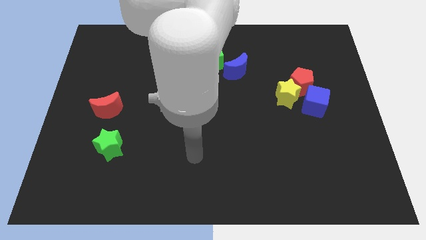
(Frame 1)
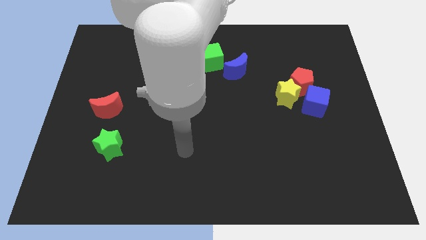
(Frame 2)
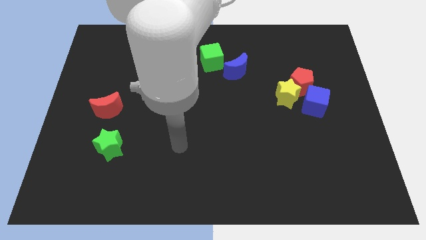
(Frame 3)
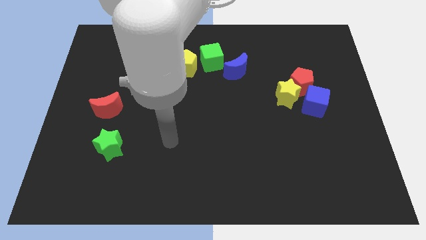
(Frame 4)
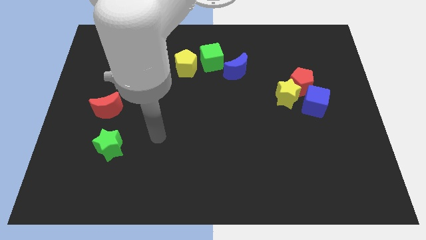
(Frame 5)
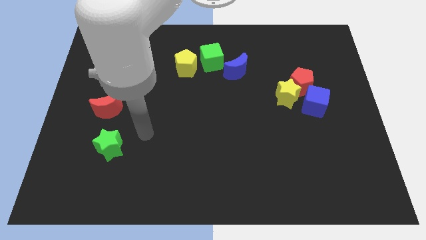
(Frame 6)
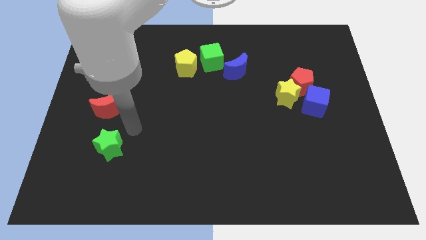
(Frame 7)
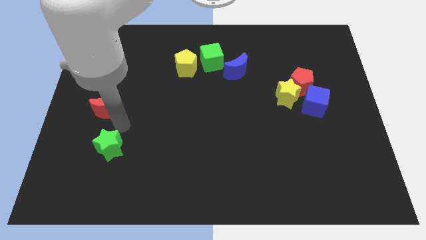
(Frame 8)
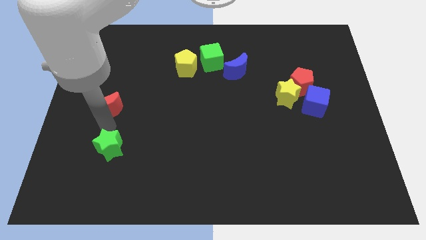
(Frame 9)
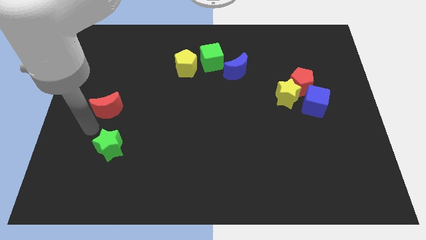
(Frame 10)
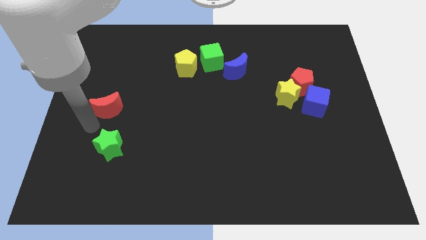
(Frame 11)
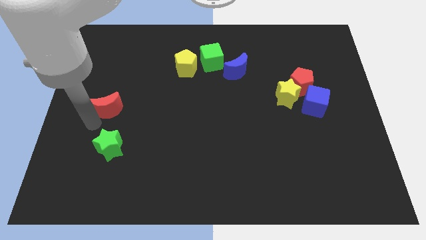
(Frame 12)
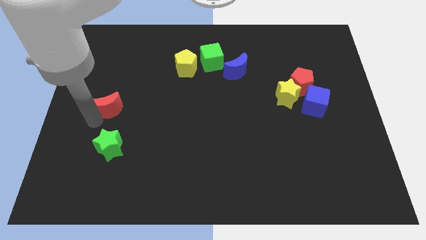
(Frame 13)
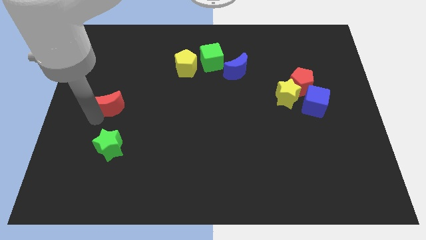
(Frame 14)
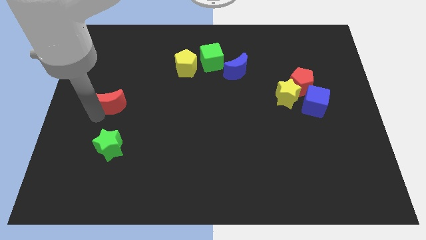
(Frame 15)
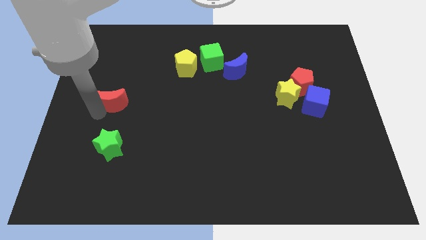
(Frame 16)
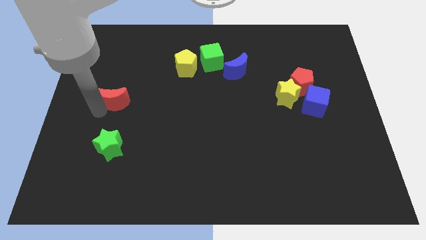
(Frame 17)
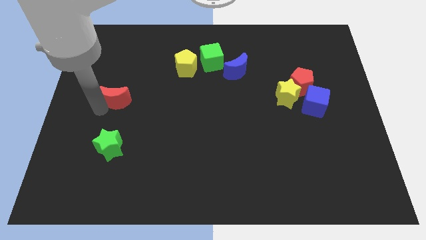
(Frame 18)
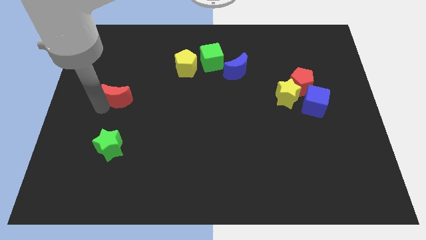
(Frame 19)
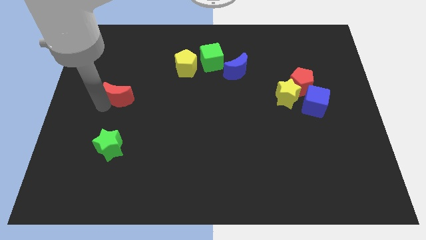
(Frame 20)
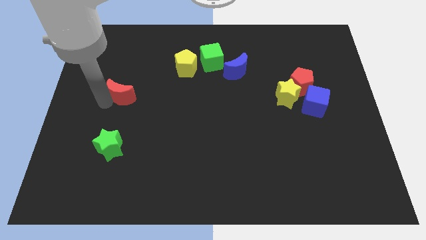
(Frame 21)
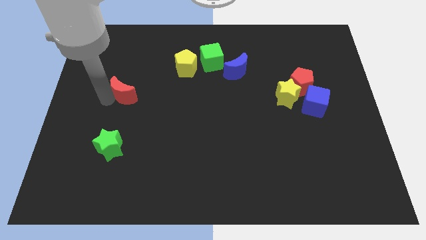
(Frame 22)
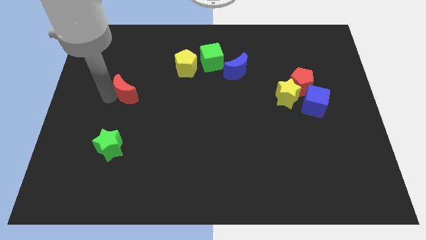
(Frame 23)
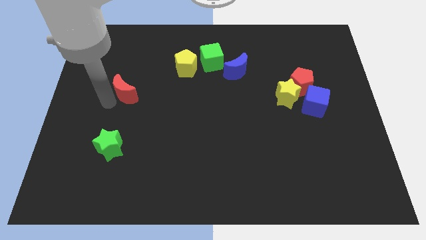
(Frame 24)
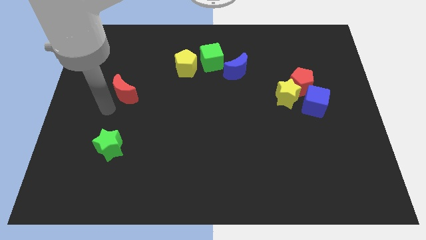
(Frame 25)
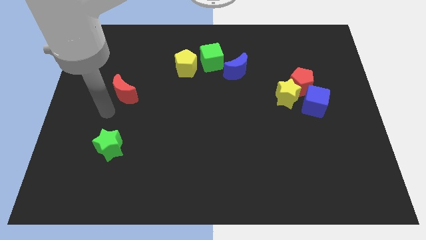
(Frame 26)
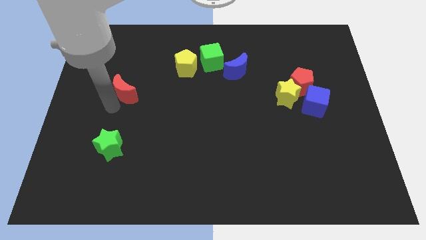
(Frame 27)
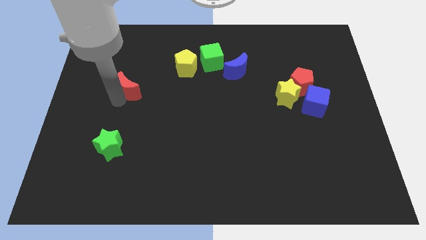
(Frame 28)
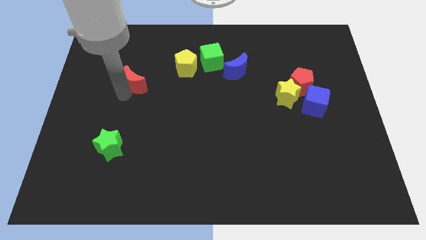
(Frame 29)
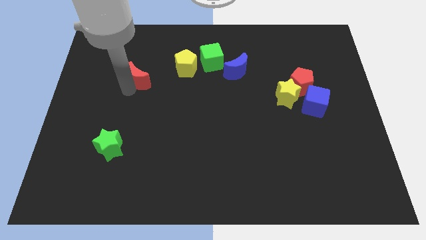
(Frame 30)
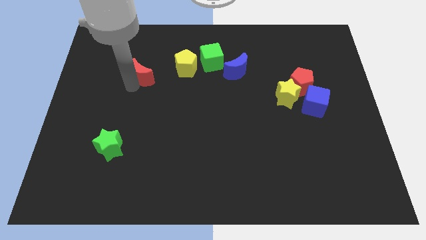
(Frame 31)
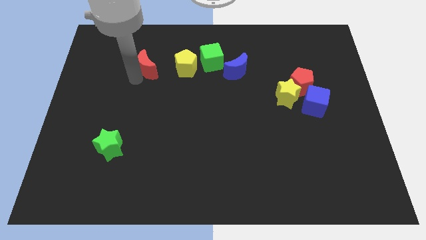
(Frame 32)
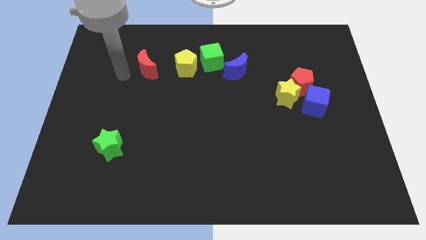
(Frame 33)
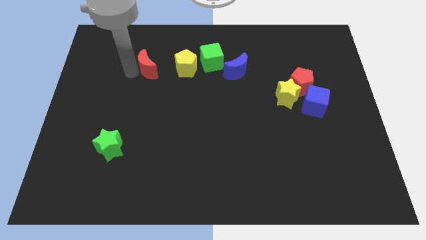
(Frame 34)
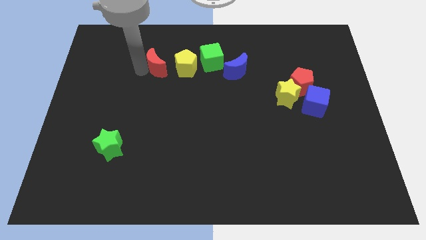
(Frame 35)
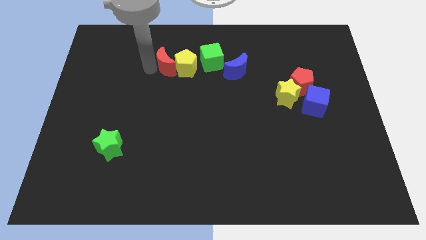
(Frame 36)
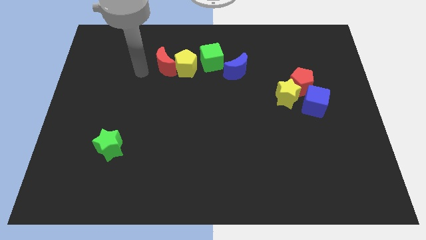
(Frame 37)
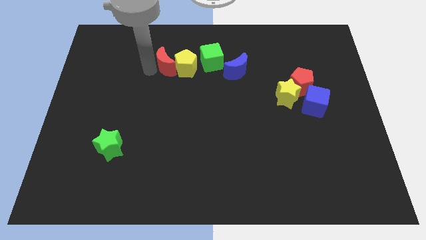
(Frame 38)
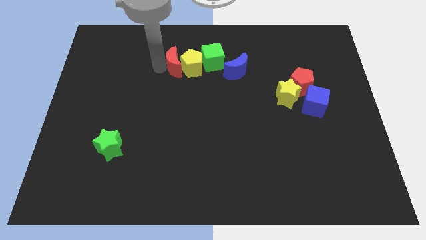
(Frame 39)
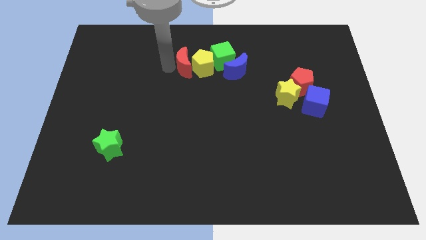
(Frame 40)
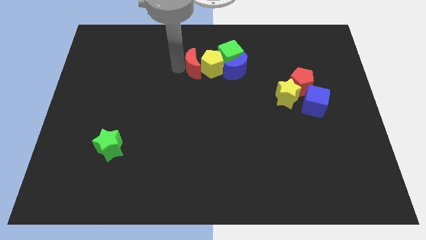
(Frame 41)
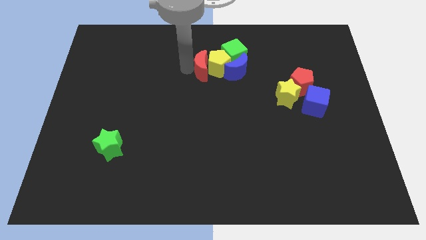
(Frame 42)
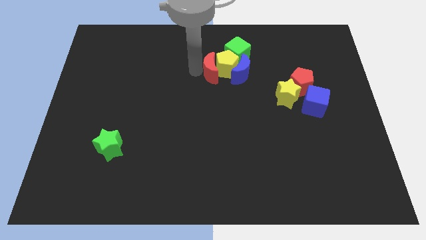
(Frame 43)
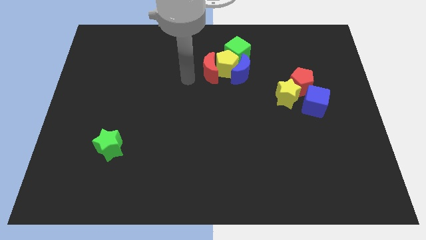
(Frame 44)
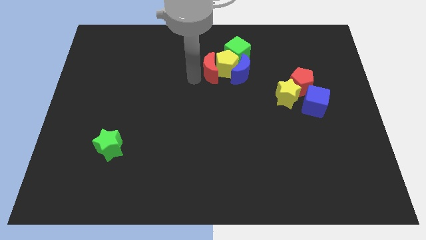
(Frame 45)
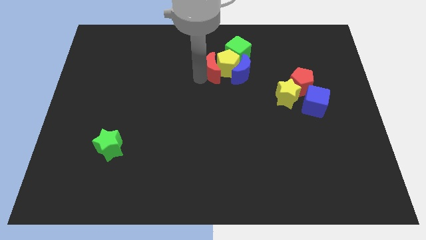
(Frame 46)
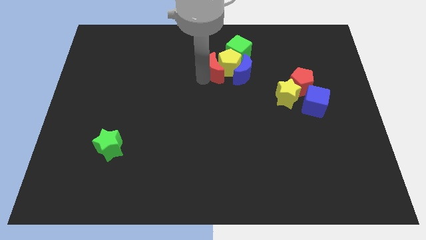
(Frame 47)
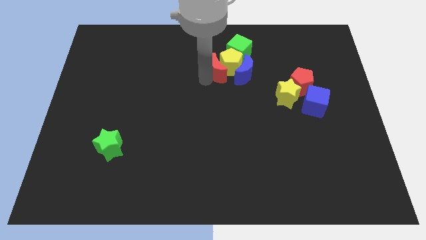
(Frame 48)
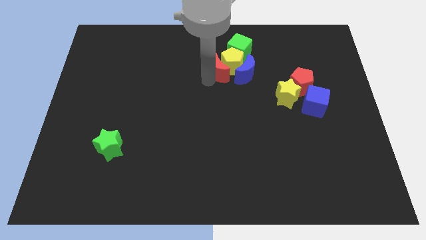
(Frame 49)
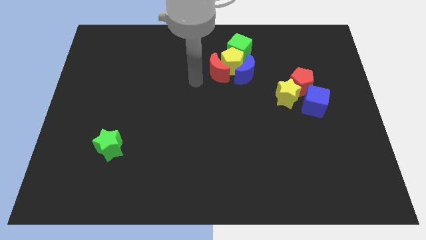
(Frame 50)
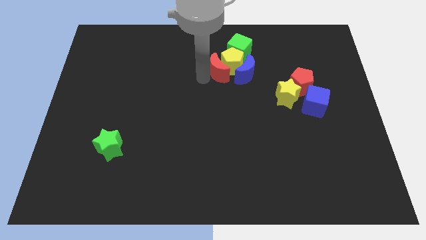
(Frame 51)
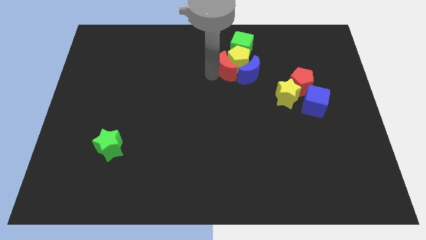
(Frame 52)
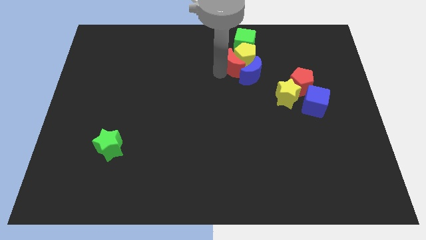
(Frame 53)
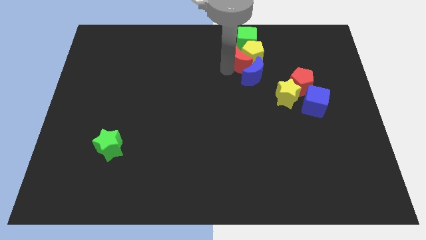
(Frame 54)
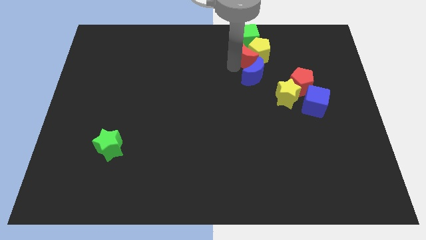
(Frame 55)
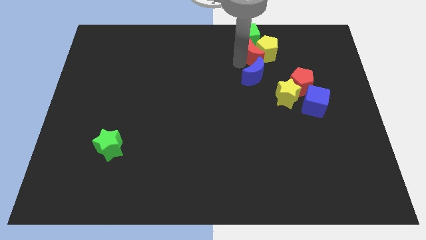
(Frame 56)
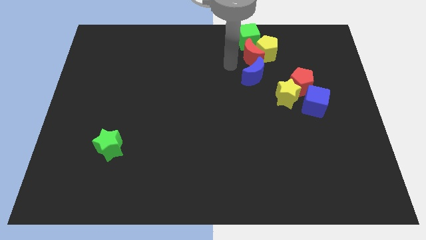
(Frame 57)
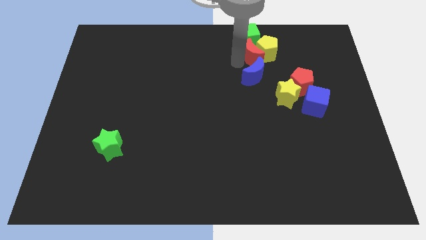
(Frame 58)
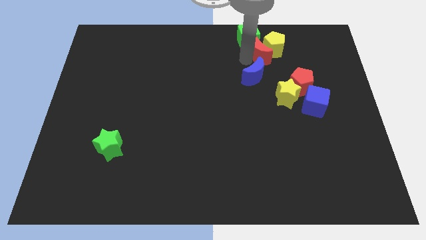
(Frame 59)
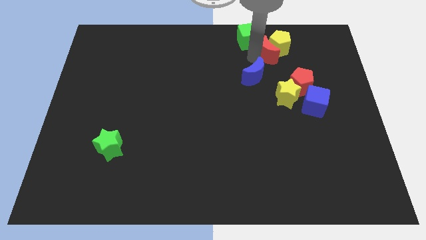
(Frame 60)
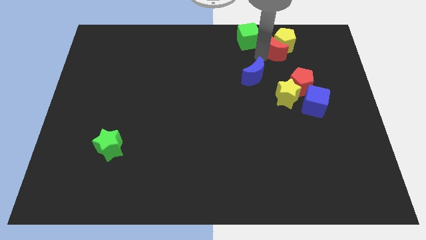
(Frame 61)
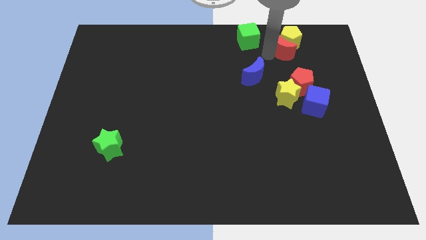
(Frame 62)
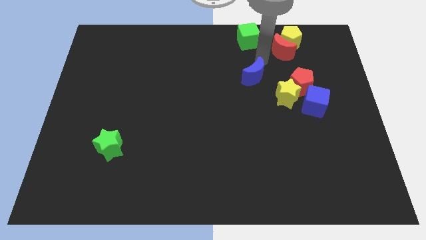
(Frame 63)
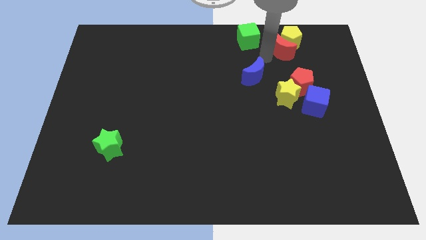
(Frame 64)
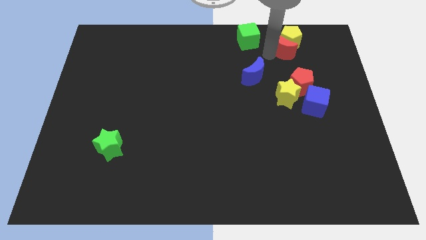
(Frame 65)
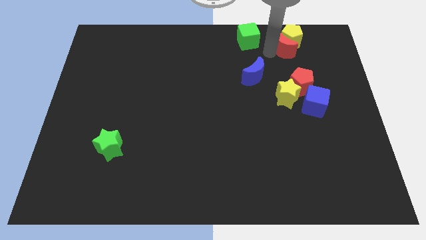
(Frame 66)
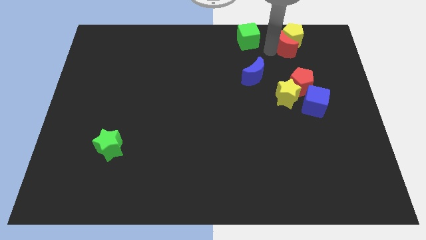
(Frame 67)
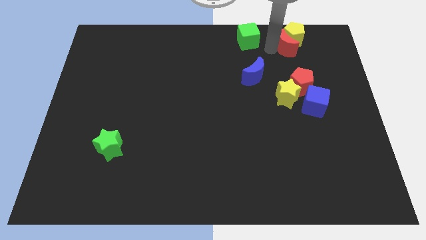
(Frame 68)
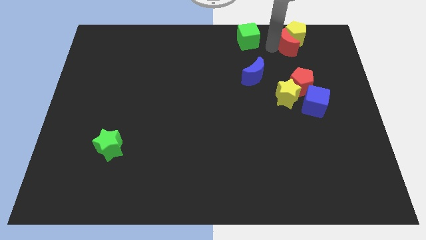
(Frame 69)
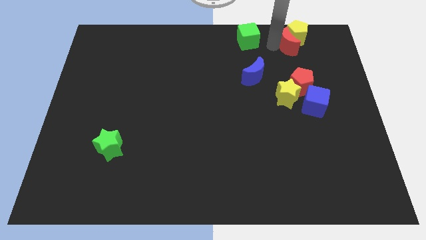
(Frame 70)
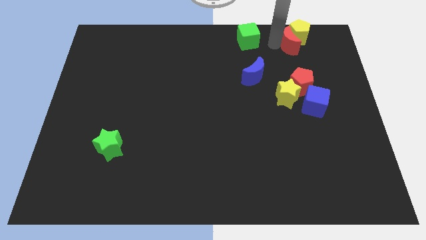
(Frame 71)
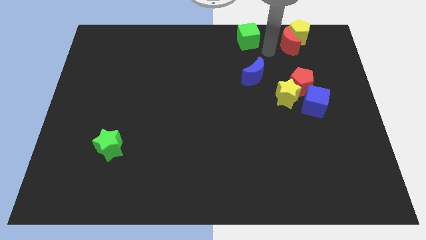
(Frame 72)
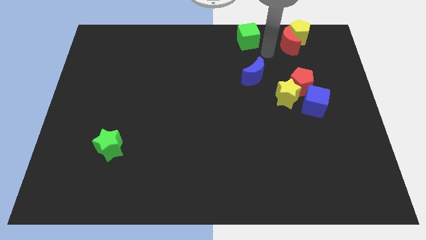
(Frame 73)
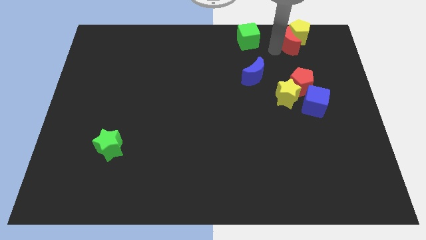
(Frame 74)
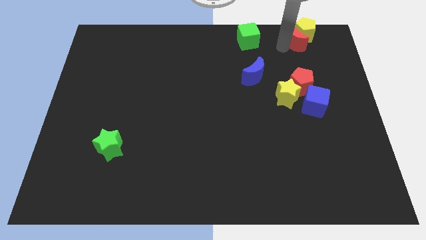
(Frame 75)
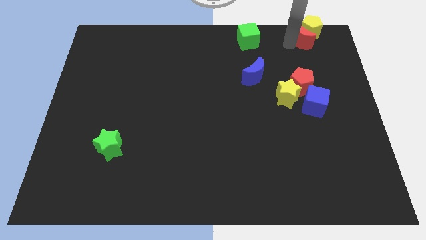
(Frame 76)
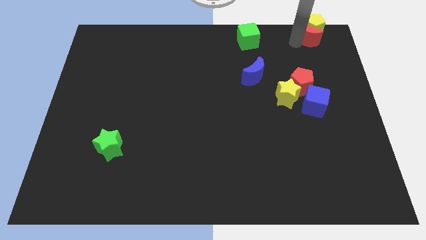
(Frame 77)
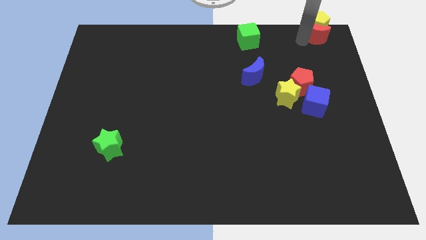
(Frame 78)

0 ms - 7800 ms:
slide the red moon to the upper right corner
